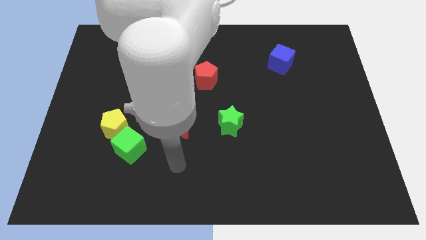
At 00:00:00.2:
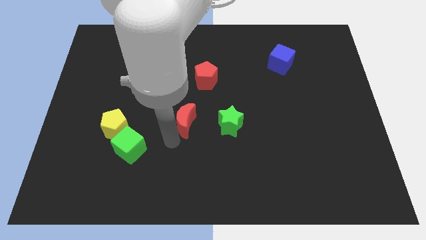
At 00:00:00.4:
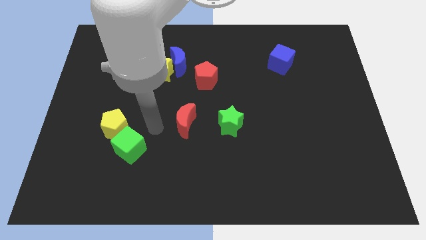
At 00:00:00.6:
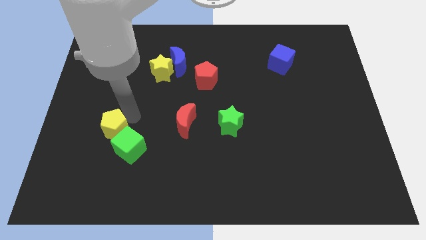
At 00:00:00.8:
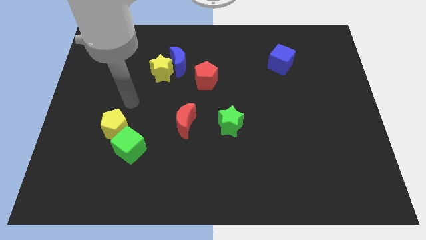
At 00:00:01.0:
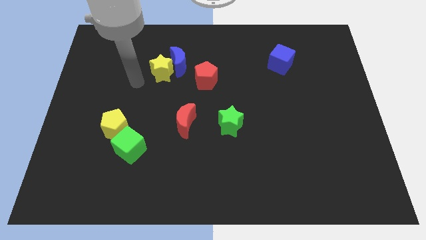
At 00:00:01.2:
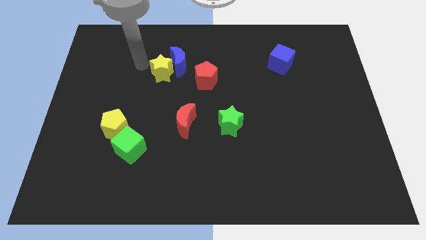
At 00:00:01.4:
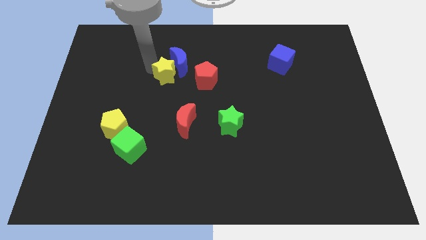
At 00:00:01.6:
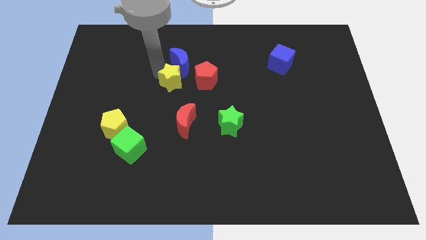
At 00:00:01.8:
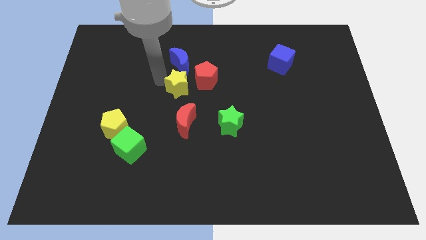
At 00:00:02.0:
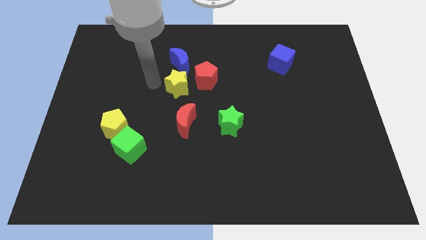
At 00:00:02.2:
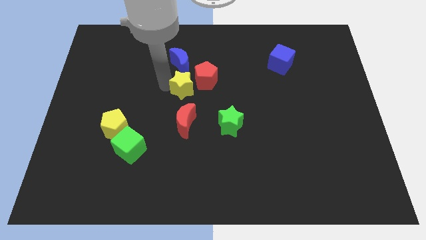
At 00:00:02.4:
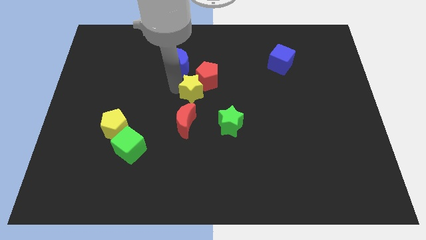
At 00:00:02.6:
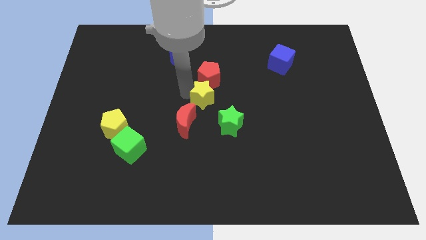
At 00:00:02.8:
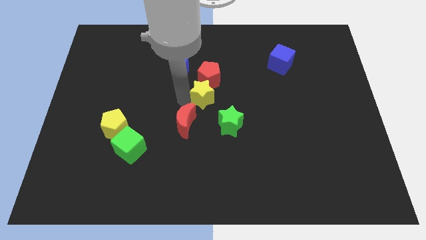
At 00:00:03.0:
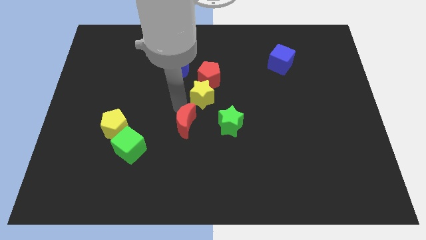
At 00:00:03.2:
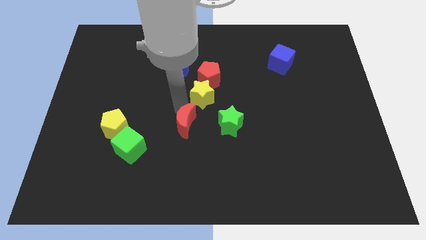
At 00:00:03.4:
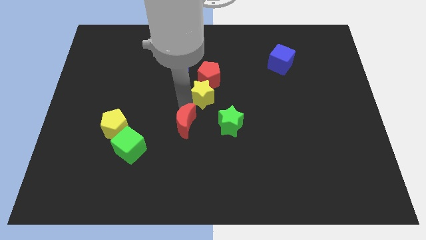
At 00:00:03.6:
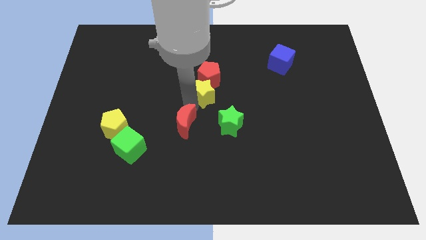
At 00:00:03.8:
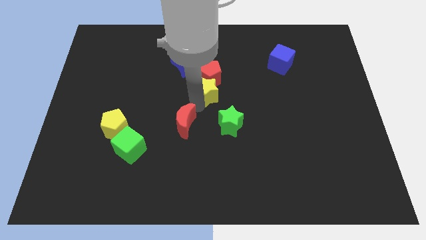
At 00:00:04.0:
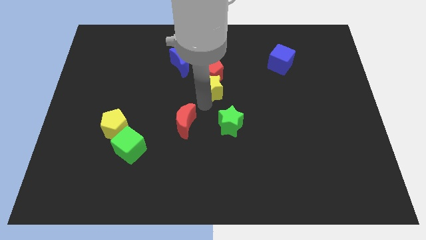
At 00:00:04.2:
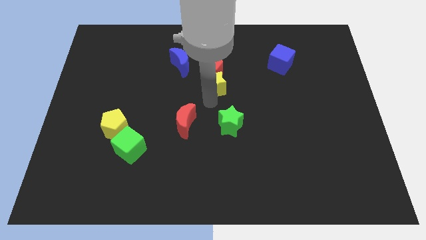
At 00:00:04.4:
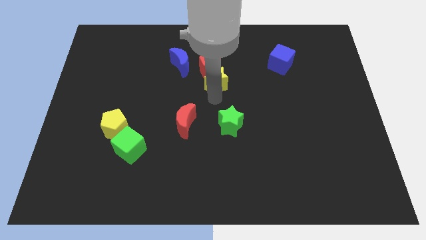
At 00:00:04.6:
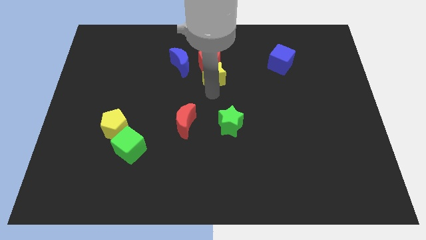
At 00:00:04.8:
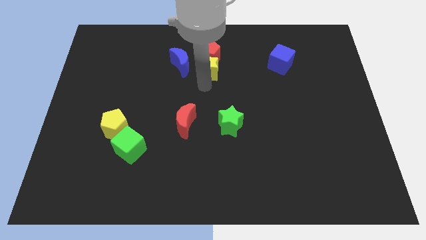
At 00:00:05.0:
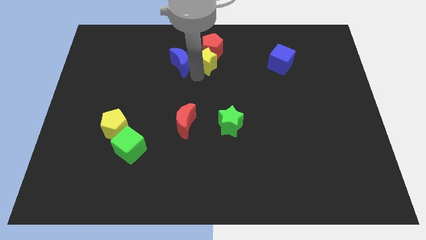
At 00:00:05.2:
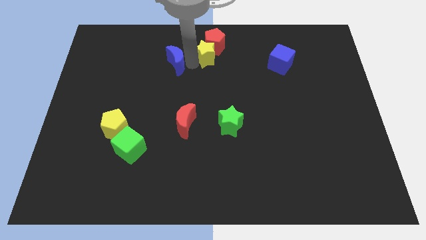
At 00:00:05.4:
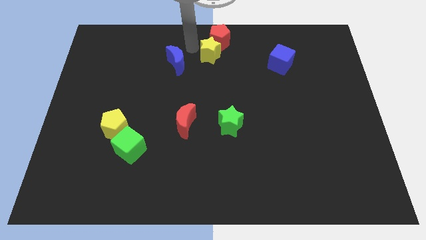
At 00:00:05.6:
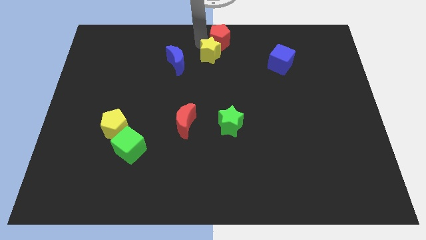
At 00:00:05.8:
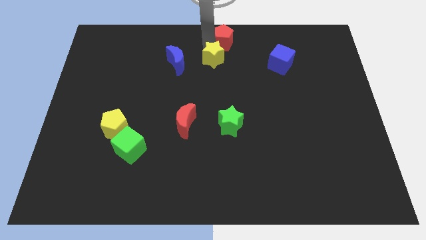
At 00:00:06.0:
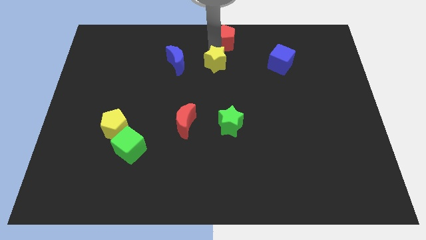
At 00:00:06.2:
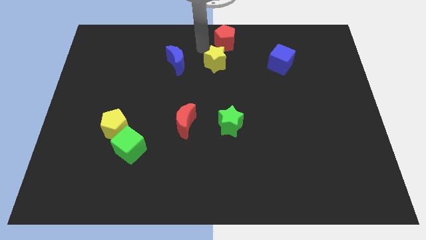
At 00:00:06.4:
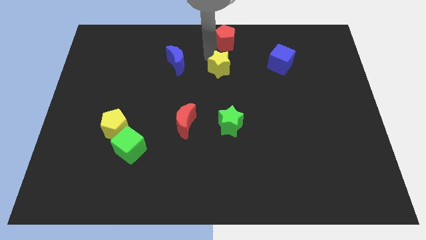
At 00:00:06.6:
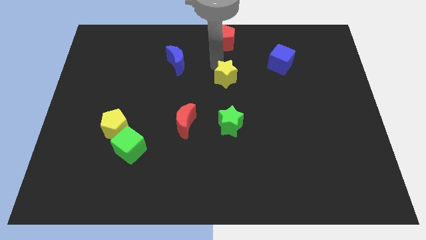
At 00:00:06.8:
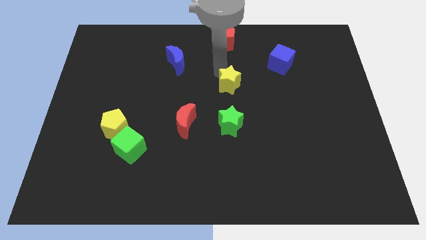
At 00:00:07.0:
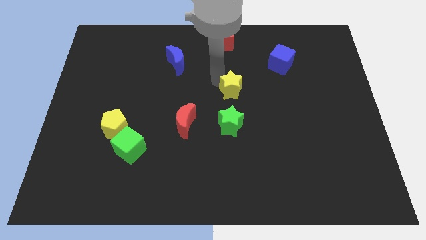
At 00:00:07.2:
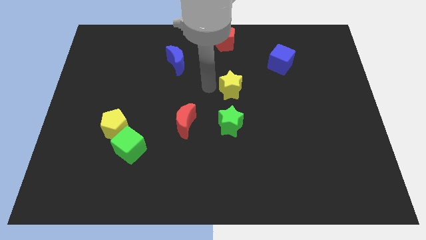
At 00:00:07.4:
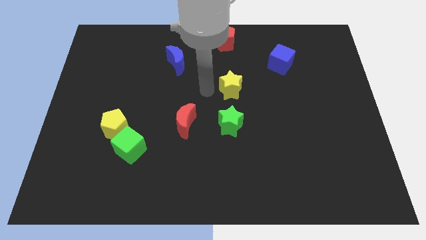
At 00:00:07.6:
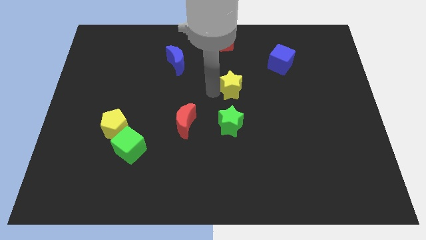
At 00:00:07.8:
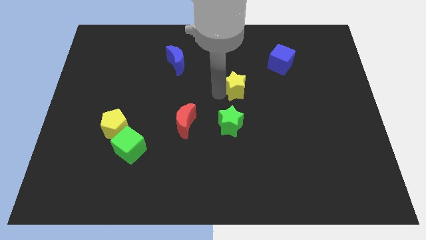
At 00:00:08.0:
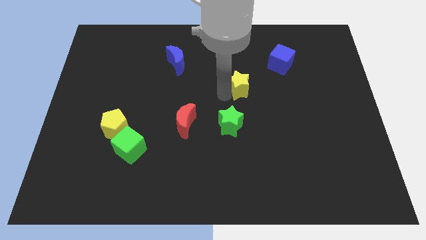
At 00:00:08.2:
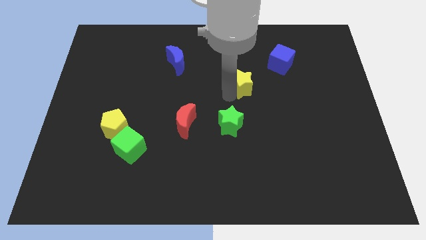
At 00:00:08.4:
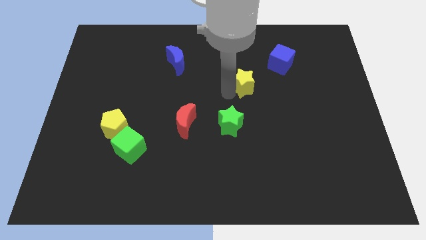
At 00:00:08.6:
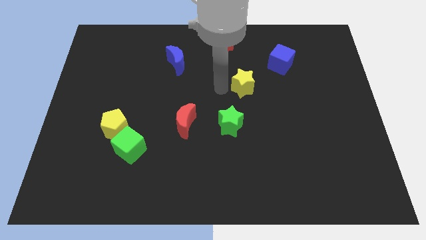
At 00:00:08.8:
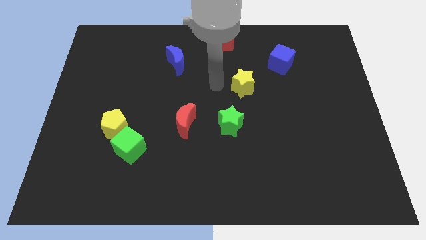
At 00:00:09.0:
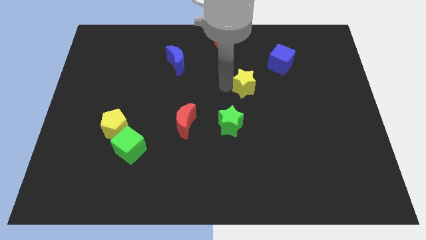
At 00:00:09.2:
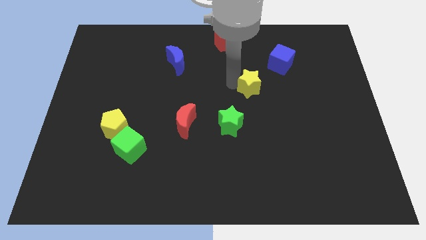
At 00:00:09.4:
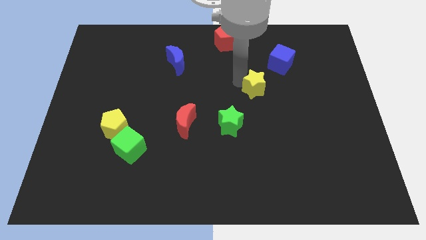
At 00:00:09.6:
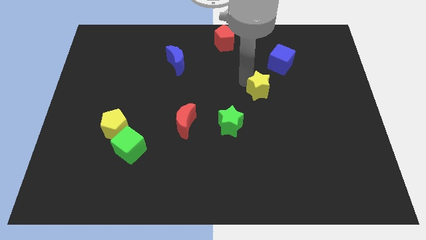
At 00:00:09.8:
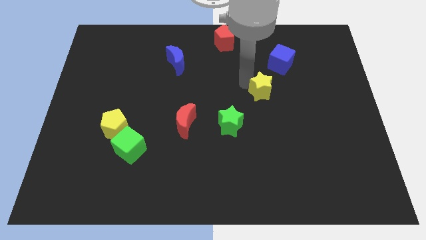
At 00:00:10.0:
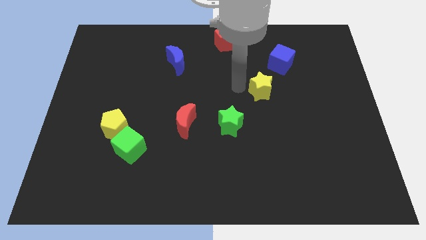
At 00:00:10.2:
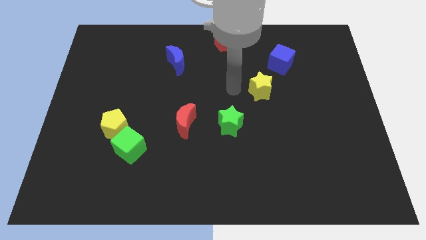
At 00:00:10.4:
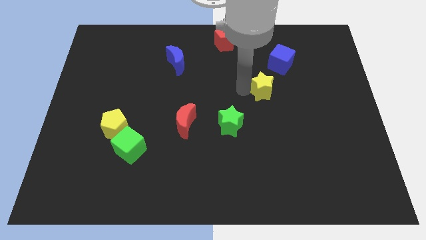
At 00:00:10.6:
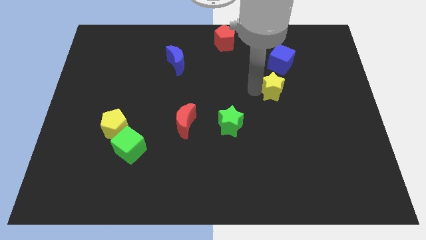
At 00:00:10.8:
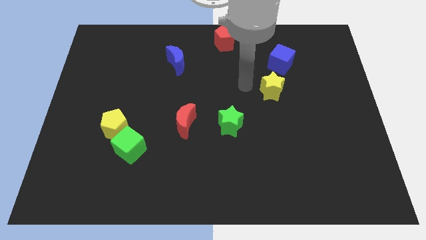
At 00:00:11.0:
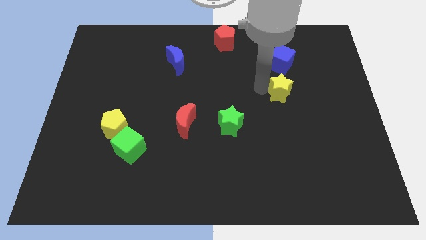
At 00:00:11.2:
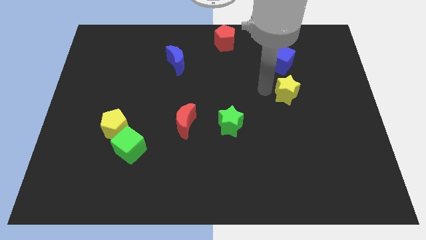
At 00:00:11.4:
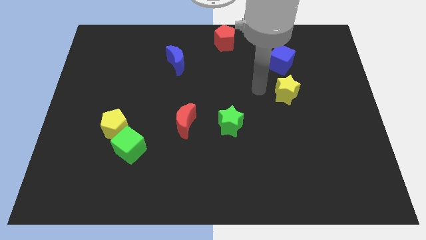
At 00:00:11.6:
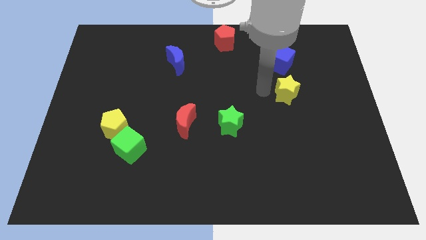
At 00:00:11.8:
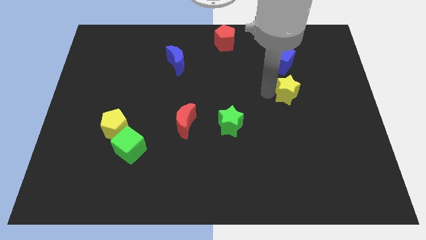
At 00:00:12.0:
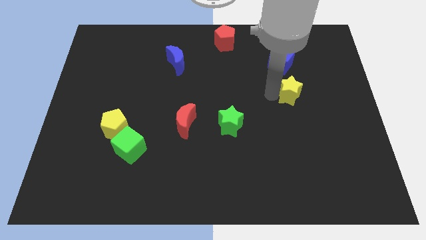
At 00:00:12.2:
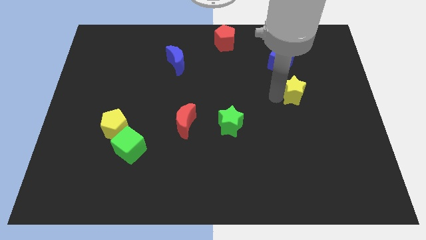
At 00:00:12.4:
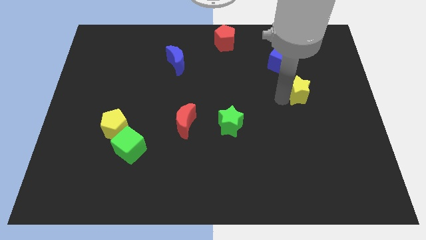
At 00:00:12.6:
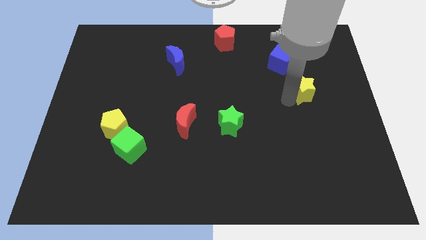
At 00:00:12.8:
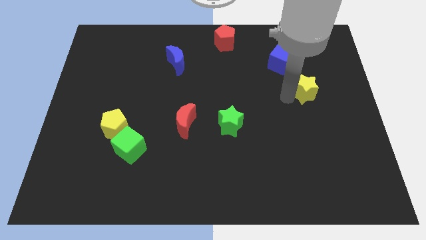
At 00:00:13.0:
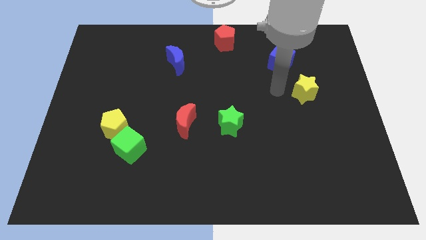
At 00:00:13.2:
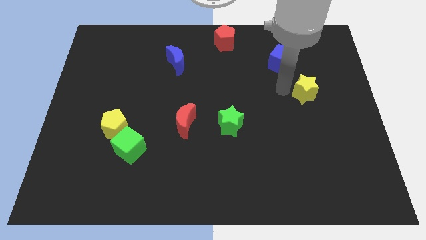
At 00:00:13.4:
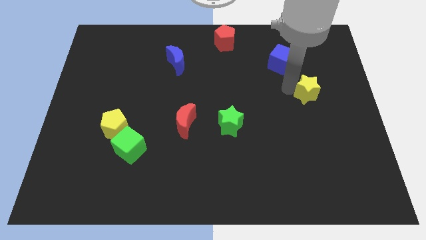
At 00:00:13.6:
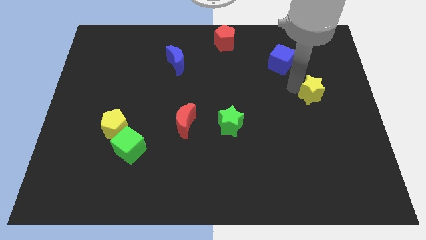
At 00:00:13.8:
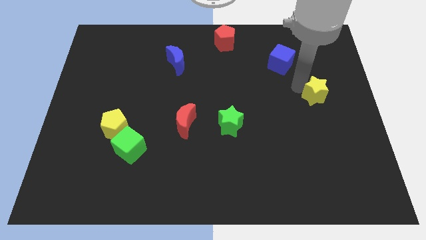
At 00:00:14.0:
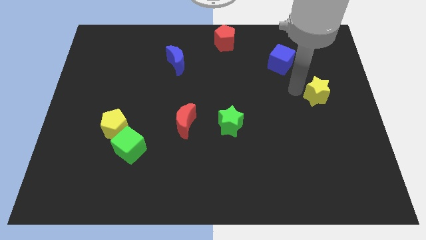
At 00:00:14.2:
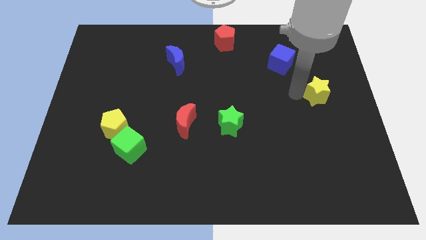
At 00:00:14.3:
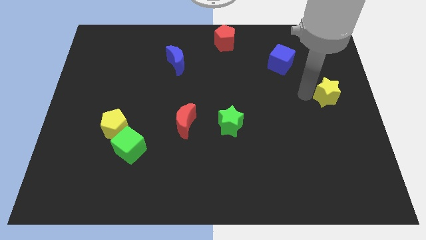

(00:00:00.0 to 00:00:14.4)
put the yellow star to the right side
